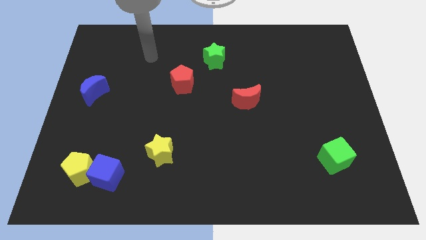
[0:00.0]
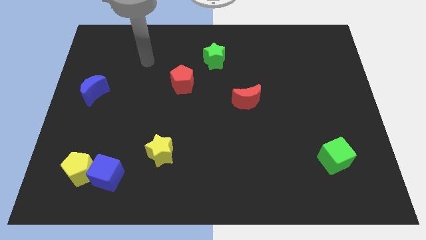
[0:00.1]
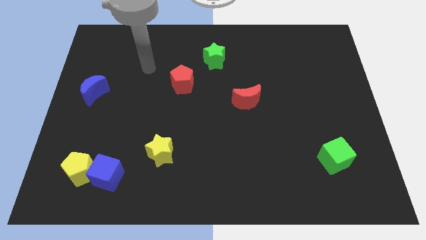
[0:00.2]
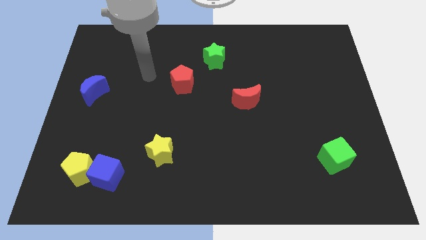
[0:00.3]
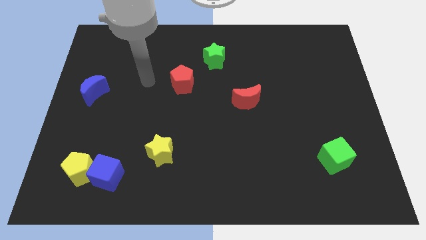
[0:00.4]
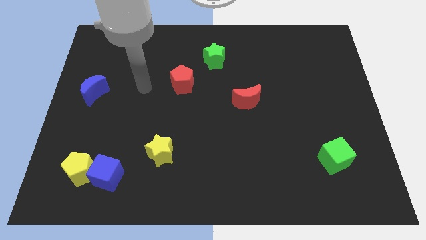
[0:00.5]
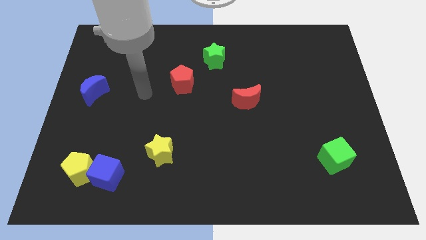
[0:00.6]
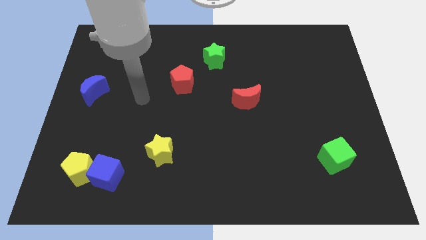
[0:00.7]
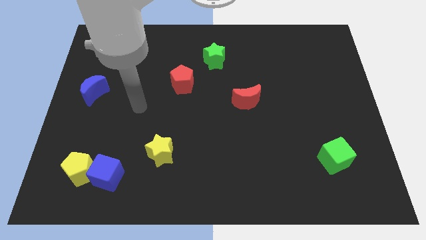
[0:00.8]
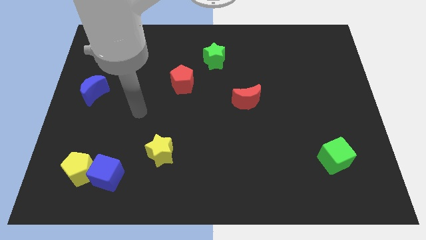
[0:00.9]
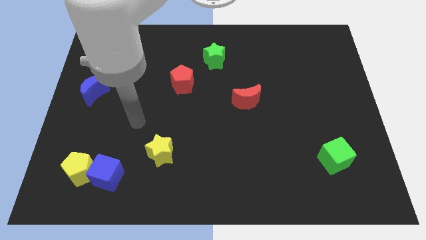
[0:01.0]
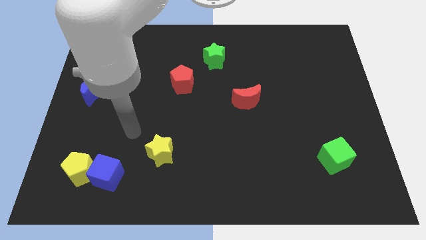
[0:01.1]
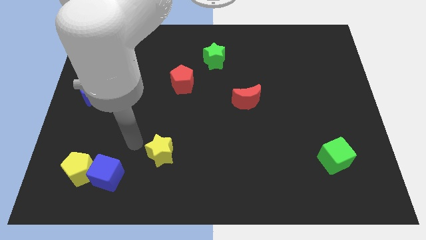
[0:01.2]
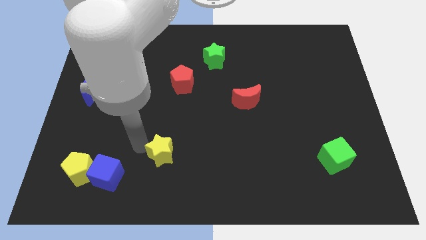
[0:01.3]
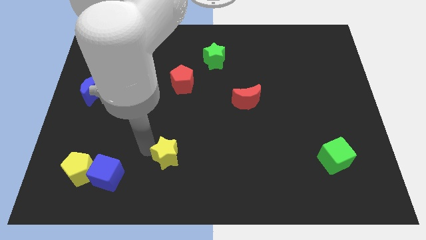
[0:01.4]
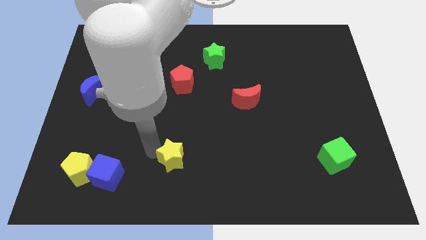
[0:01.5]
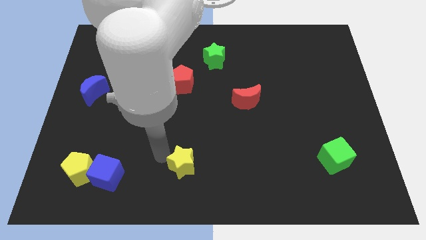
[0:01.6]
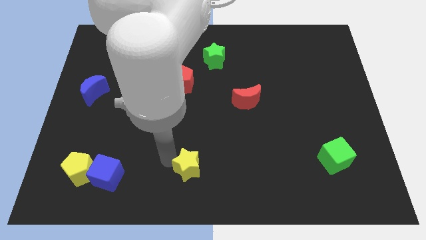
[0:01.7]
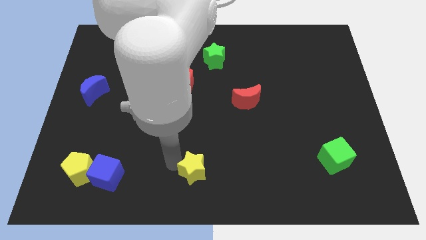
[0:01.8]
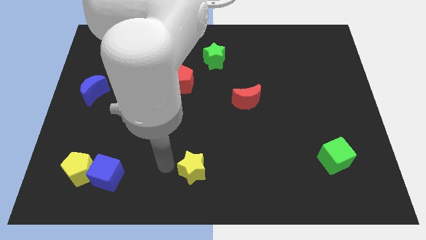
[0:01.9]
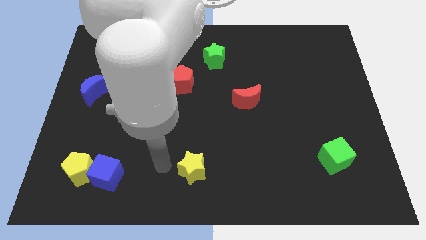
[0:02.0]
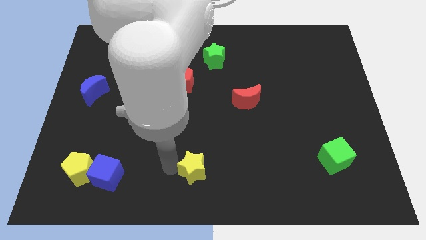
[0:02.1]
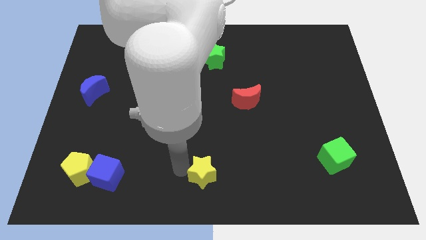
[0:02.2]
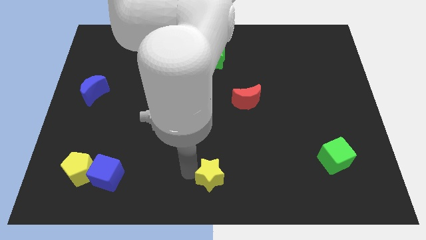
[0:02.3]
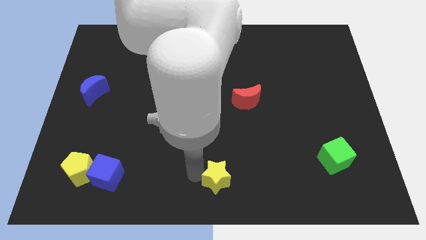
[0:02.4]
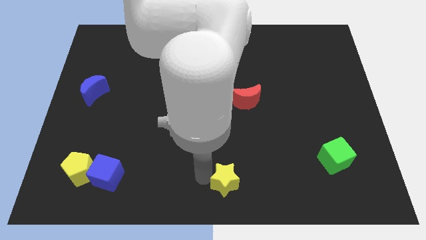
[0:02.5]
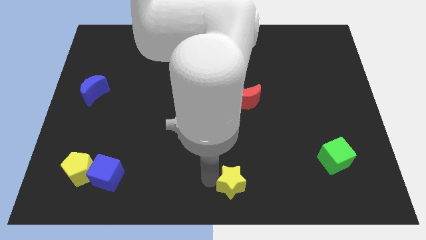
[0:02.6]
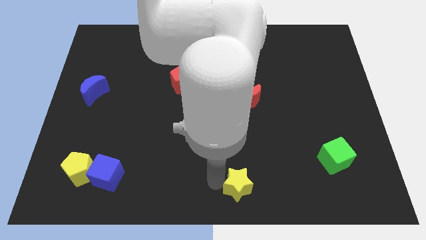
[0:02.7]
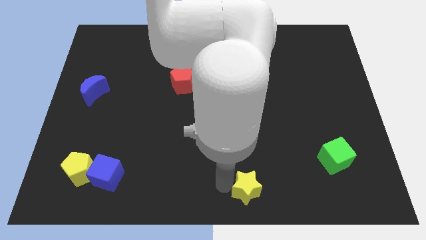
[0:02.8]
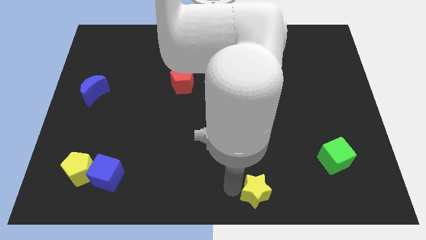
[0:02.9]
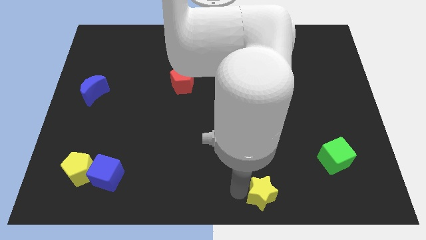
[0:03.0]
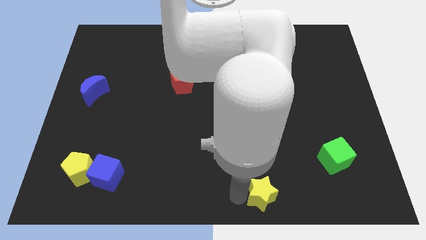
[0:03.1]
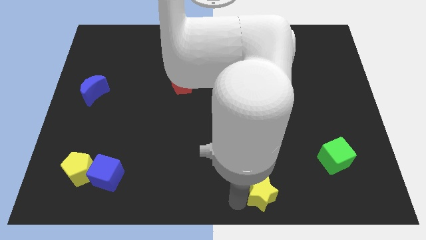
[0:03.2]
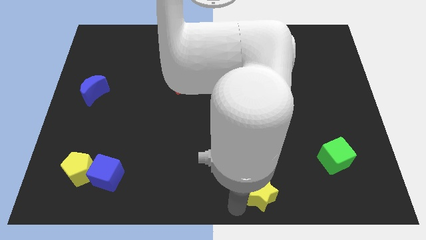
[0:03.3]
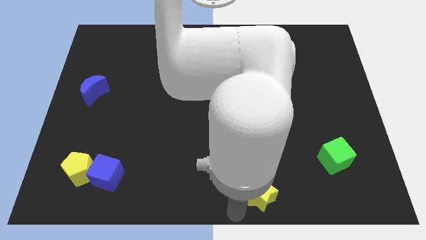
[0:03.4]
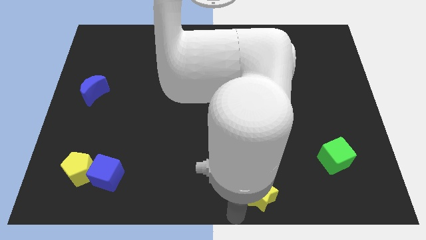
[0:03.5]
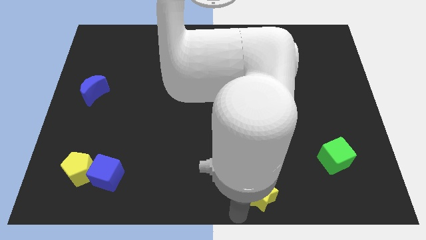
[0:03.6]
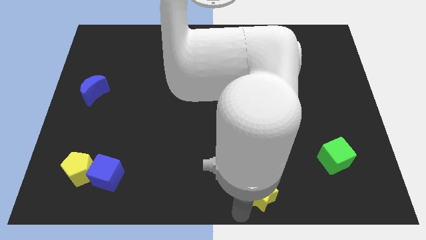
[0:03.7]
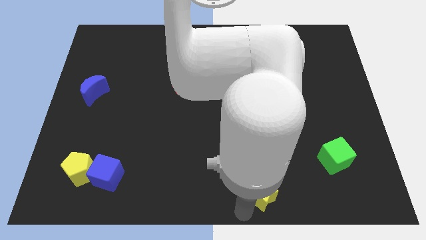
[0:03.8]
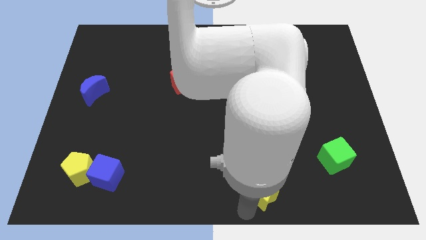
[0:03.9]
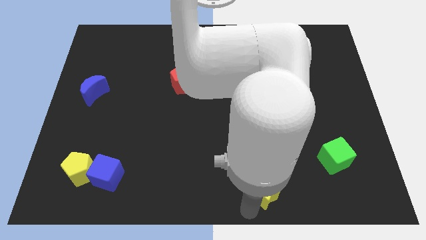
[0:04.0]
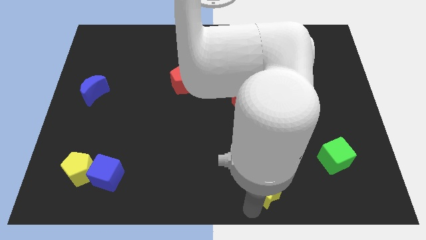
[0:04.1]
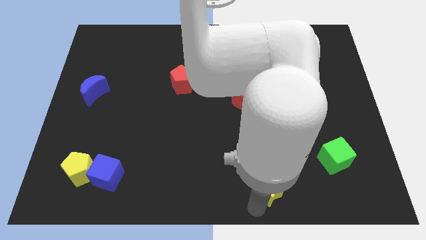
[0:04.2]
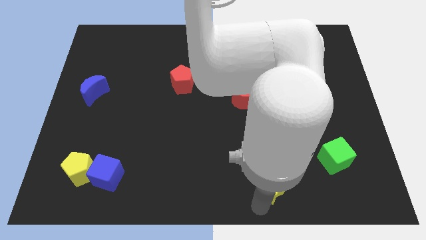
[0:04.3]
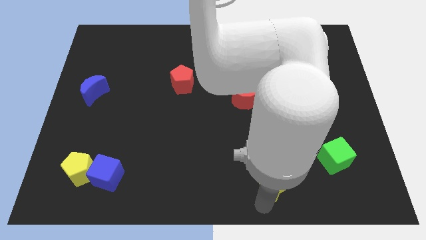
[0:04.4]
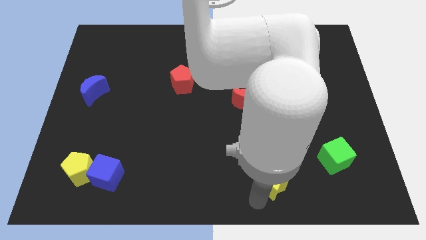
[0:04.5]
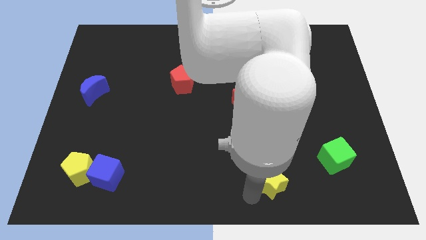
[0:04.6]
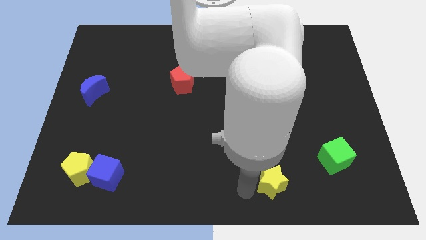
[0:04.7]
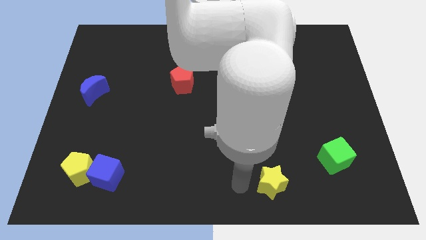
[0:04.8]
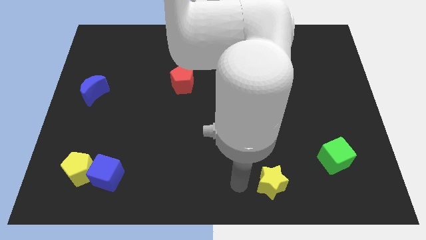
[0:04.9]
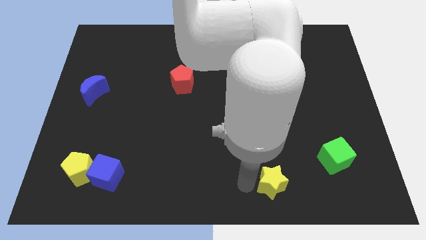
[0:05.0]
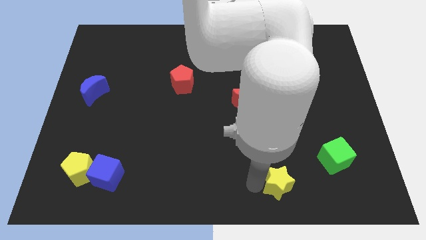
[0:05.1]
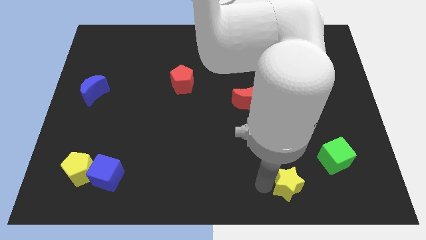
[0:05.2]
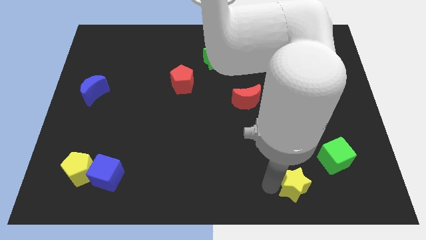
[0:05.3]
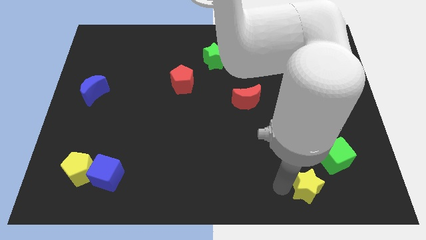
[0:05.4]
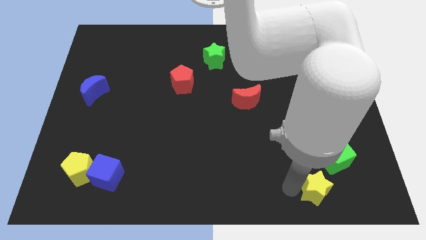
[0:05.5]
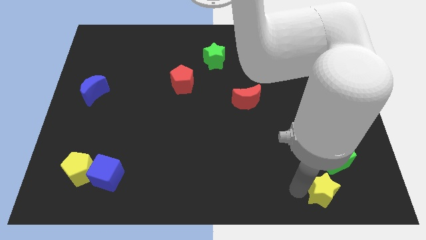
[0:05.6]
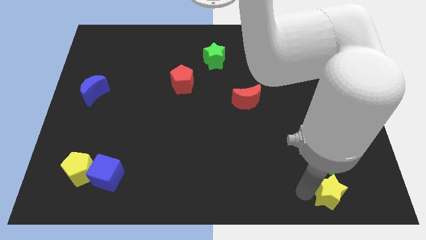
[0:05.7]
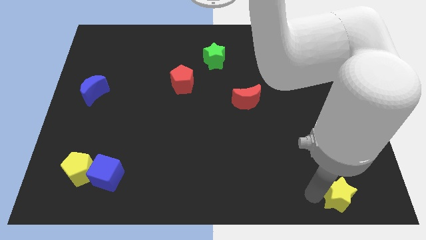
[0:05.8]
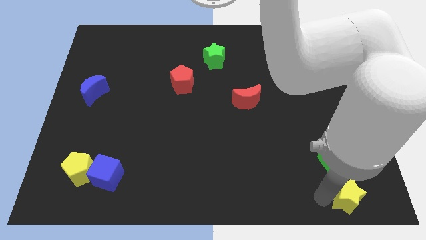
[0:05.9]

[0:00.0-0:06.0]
push the yellow star to the bottom right corner
